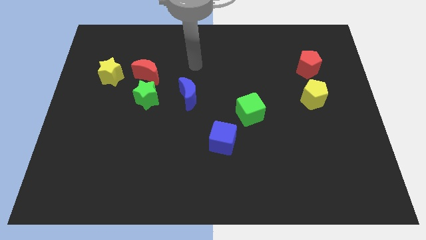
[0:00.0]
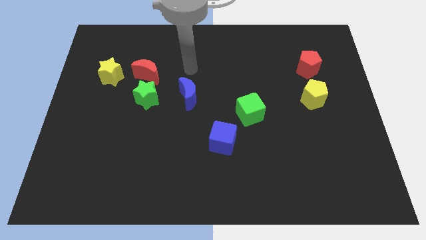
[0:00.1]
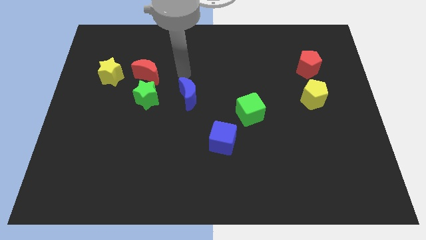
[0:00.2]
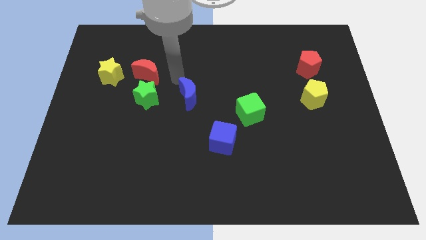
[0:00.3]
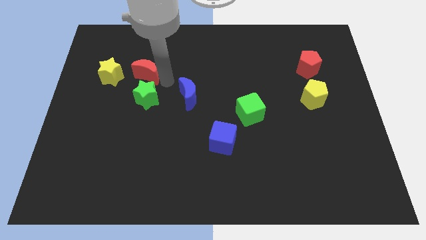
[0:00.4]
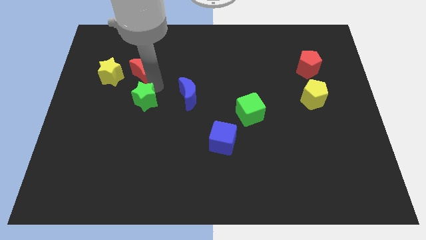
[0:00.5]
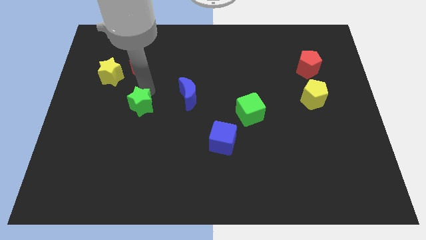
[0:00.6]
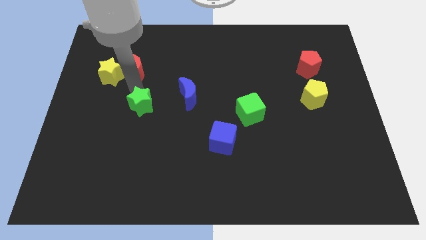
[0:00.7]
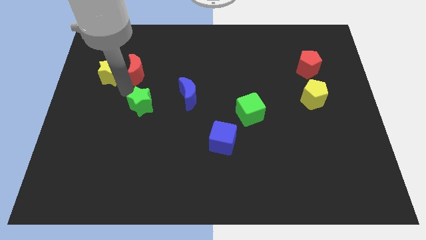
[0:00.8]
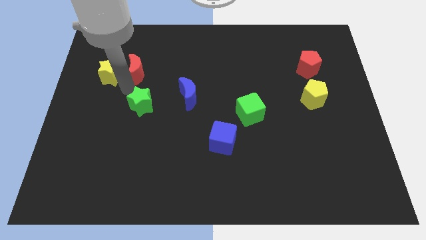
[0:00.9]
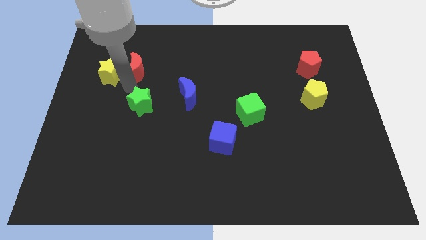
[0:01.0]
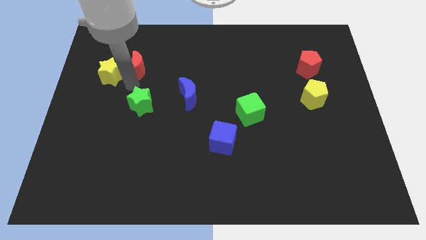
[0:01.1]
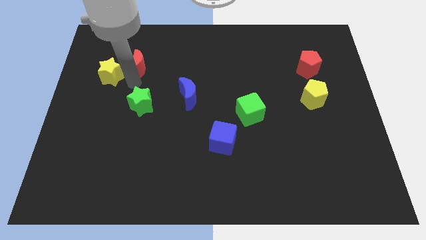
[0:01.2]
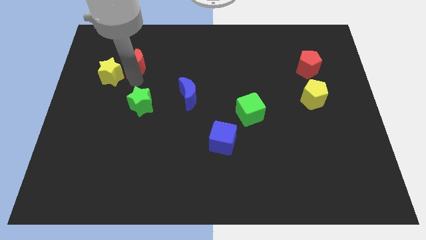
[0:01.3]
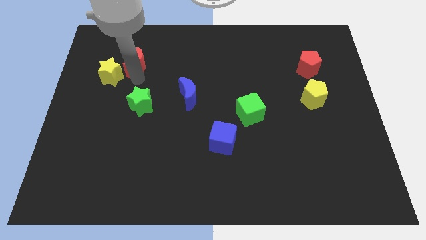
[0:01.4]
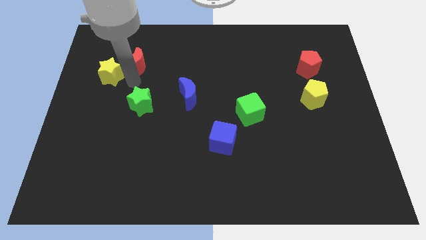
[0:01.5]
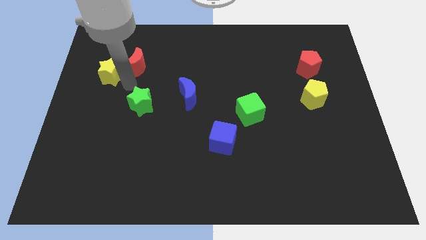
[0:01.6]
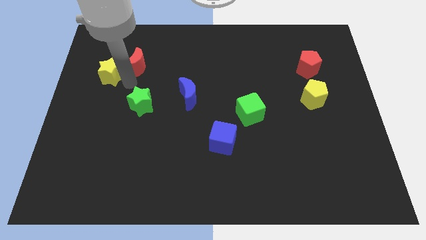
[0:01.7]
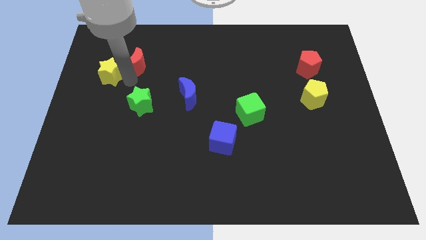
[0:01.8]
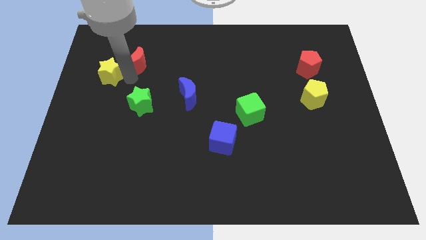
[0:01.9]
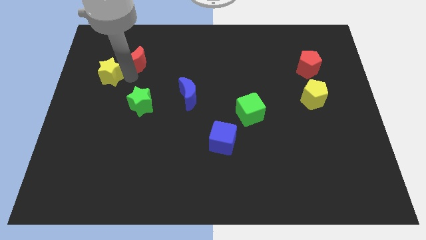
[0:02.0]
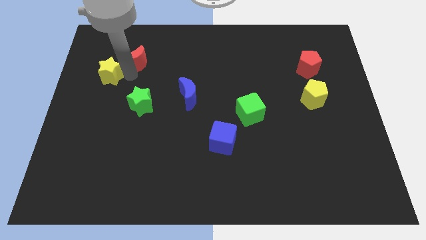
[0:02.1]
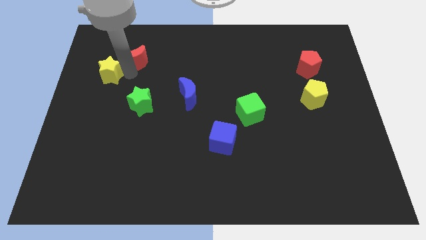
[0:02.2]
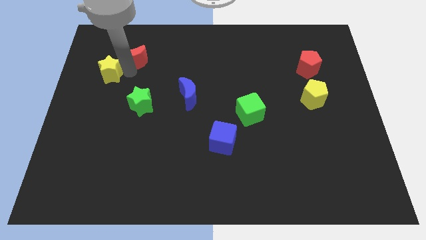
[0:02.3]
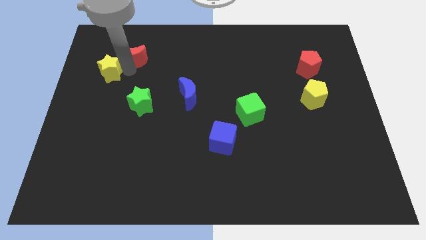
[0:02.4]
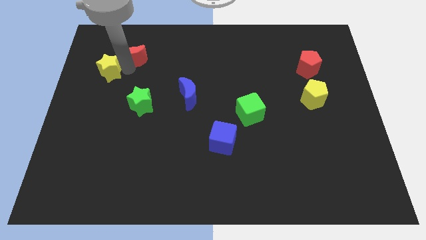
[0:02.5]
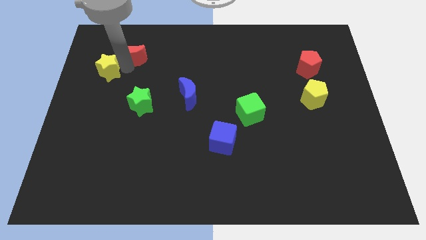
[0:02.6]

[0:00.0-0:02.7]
pull the red moon apart from the green star and yellow star

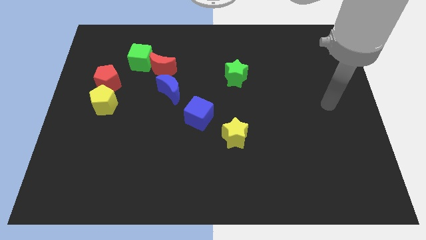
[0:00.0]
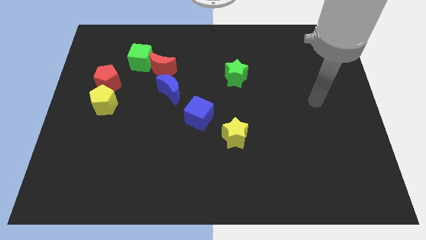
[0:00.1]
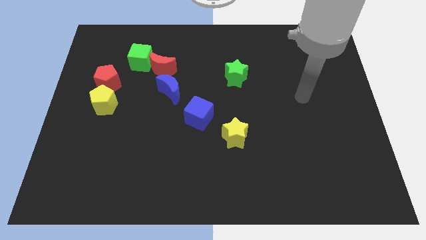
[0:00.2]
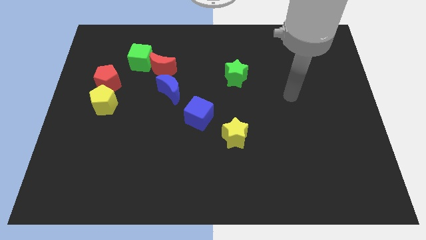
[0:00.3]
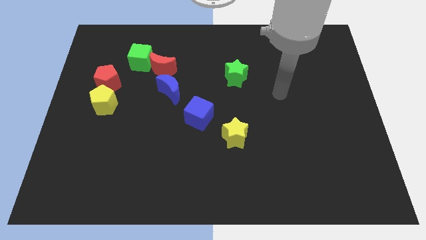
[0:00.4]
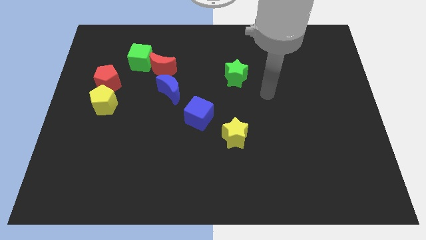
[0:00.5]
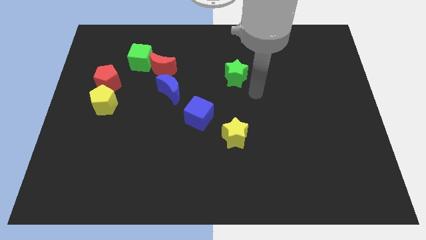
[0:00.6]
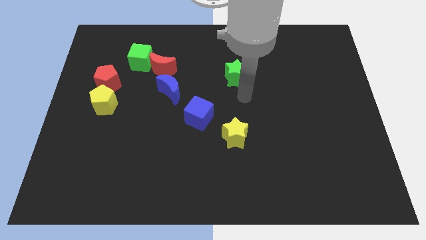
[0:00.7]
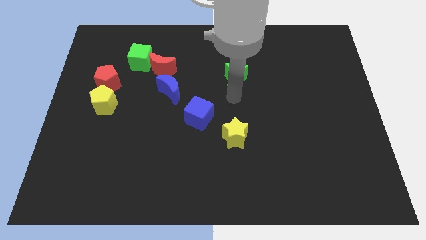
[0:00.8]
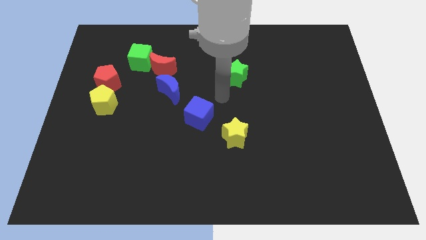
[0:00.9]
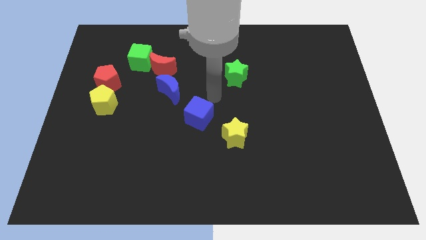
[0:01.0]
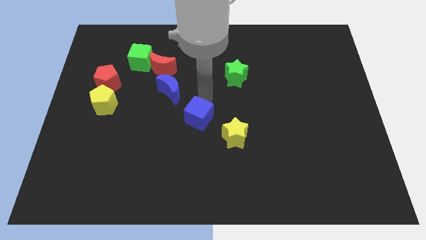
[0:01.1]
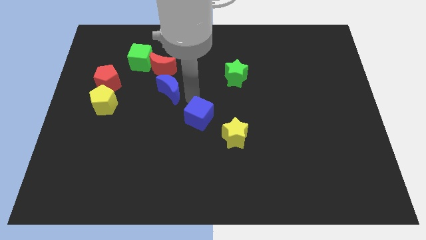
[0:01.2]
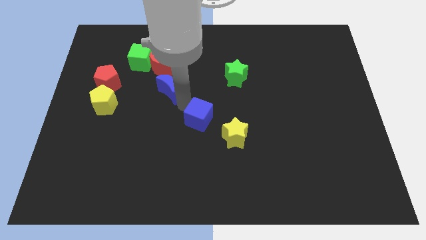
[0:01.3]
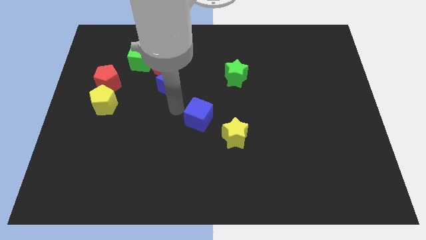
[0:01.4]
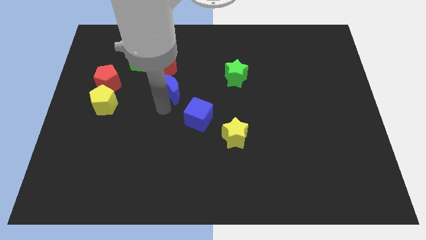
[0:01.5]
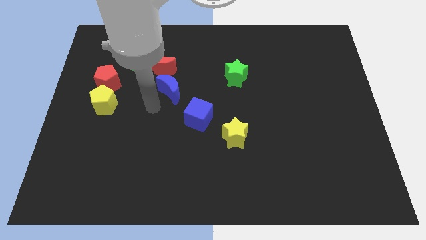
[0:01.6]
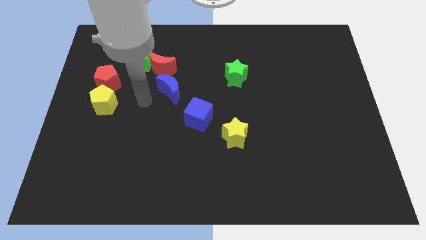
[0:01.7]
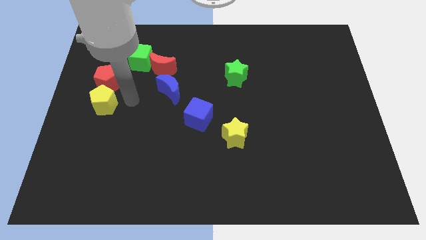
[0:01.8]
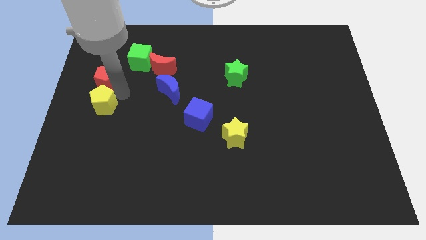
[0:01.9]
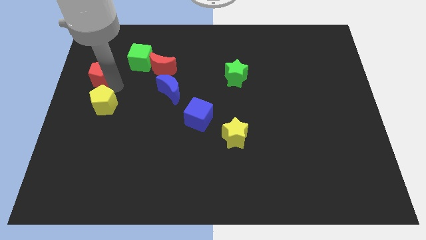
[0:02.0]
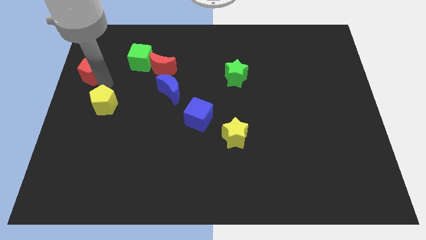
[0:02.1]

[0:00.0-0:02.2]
separate the yellow pentagon from the red pentagon

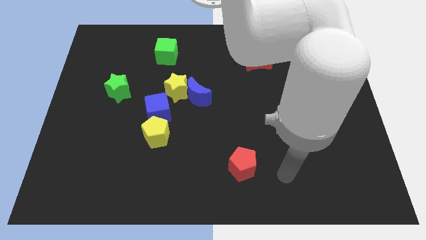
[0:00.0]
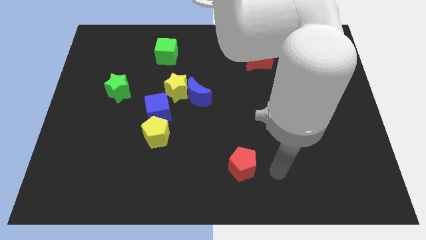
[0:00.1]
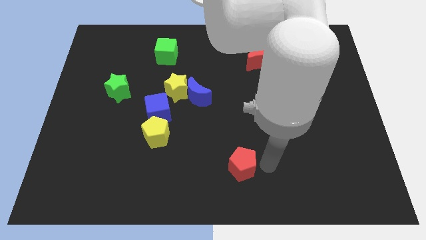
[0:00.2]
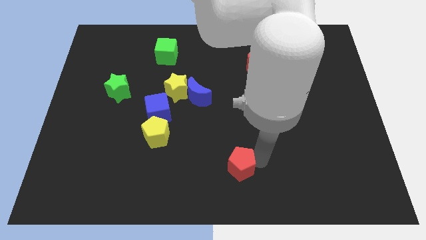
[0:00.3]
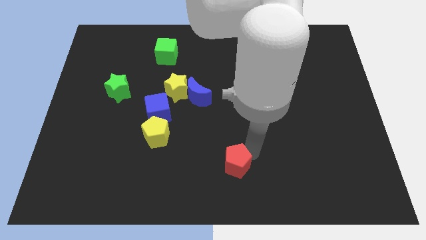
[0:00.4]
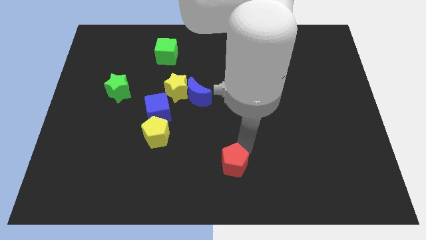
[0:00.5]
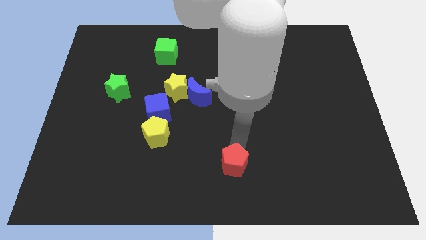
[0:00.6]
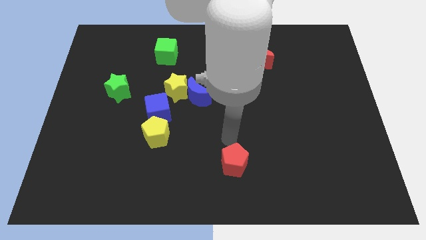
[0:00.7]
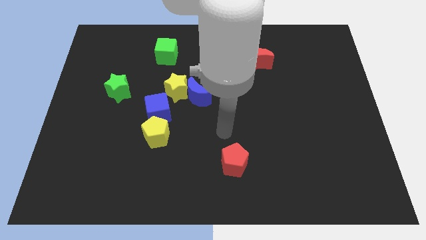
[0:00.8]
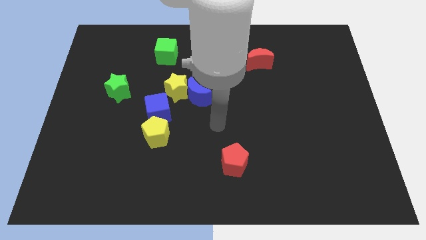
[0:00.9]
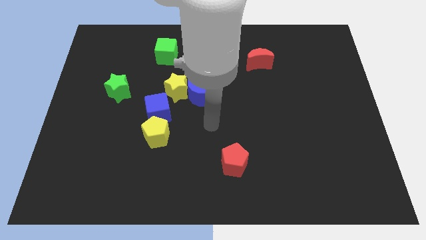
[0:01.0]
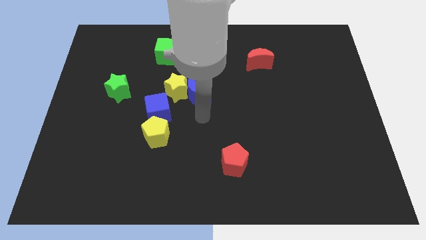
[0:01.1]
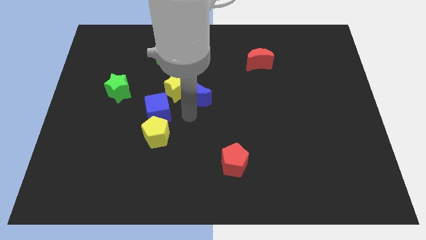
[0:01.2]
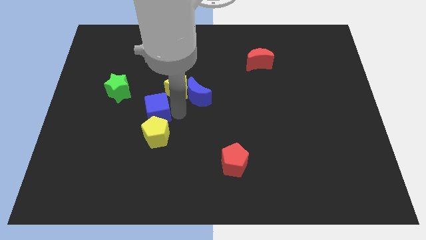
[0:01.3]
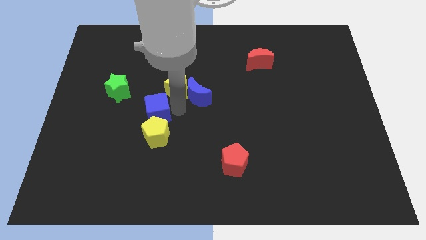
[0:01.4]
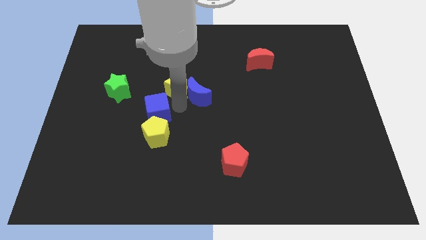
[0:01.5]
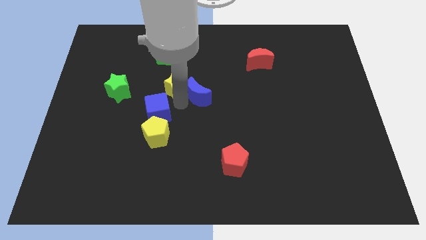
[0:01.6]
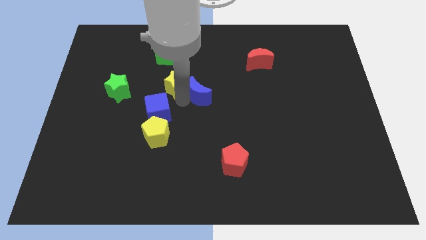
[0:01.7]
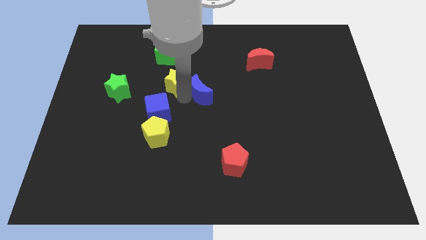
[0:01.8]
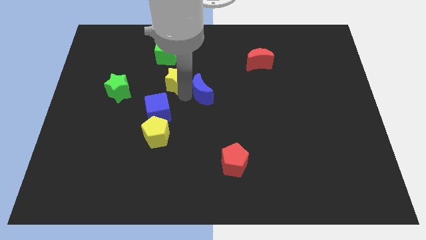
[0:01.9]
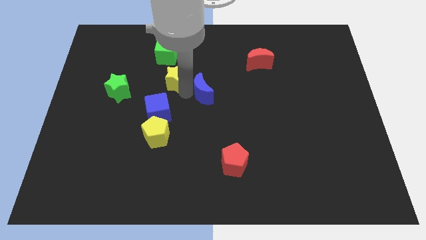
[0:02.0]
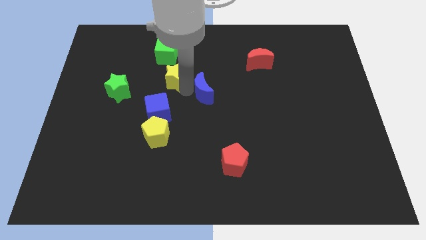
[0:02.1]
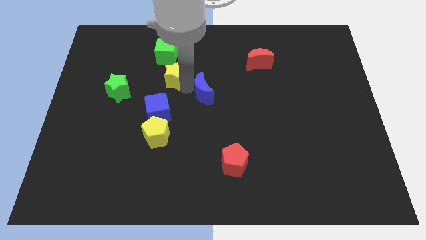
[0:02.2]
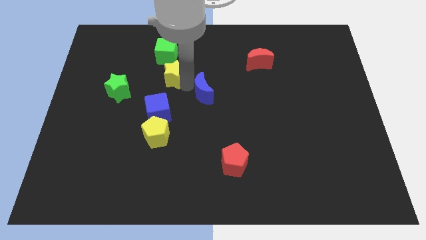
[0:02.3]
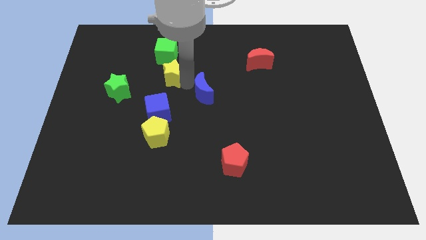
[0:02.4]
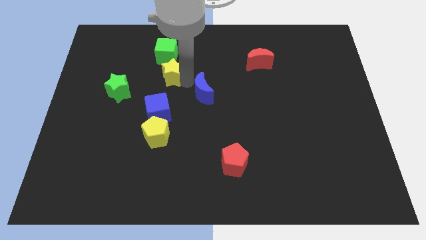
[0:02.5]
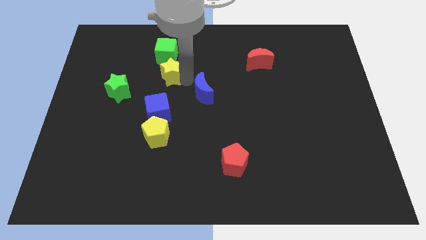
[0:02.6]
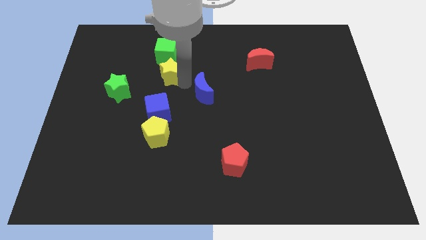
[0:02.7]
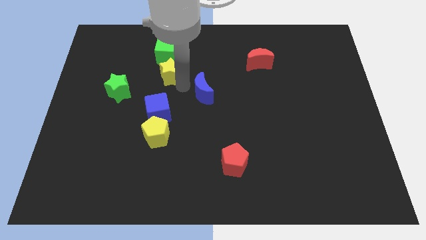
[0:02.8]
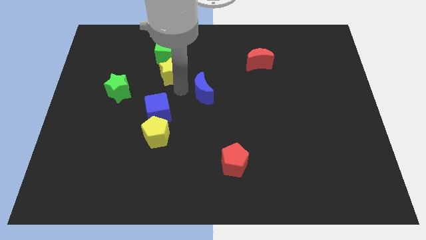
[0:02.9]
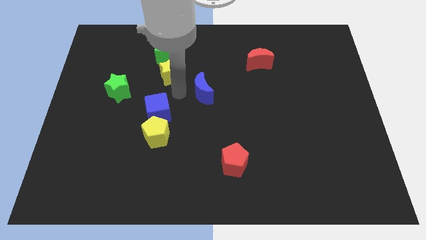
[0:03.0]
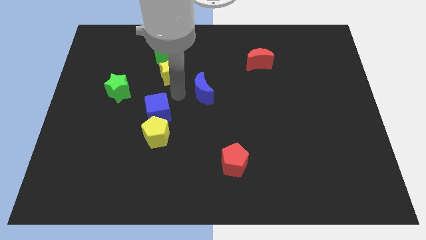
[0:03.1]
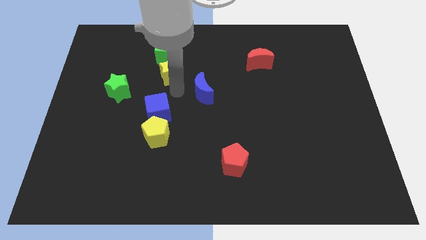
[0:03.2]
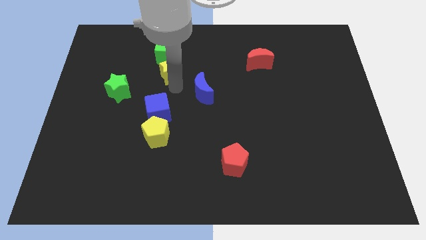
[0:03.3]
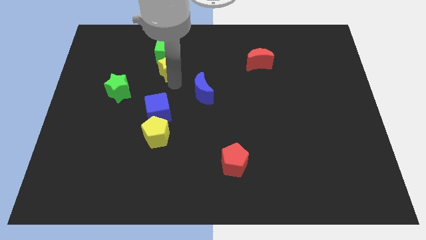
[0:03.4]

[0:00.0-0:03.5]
move the yellow star away from the blue moon and blue cube

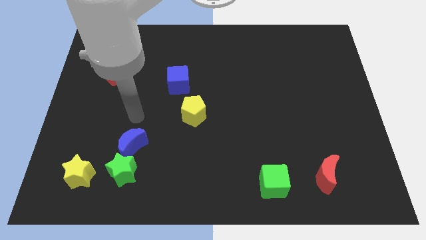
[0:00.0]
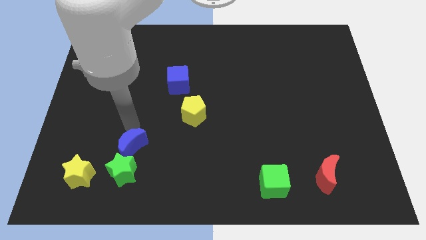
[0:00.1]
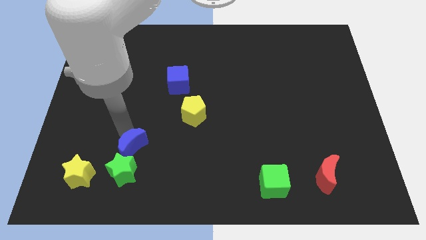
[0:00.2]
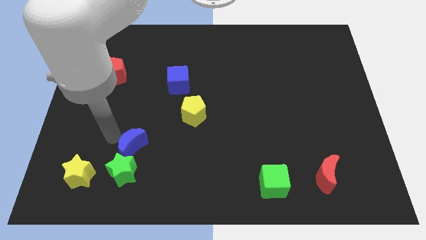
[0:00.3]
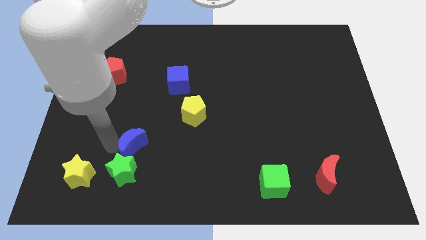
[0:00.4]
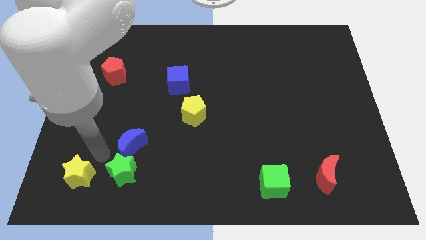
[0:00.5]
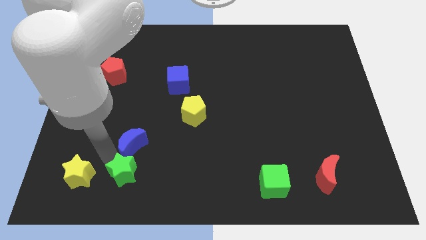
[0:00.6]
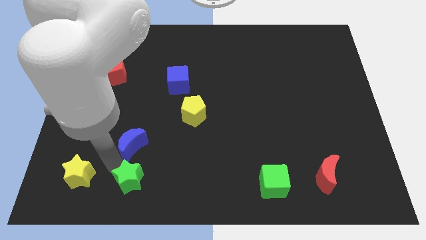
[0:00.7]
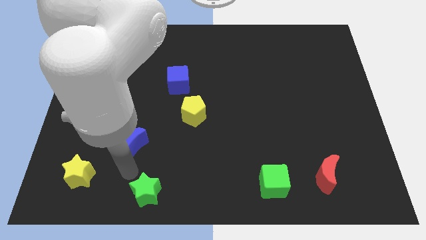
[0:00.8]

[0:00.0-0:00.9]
move the blue moon away from the green star

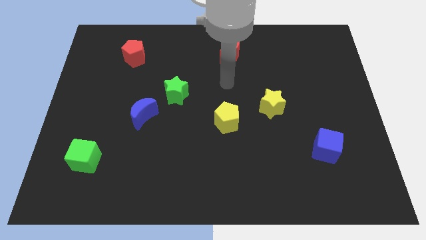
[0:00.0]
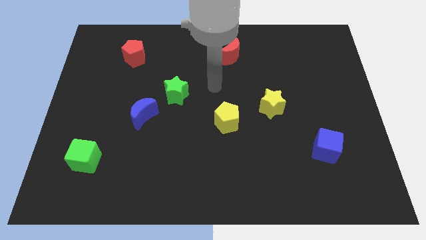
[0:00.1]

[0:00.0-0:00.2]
pull the blue moon apart from the green star
